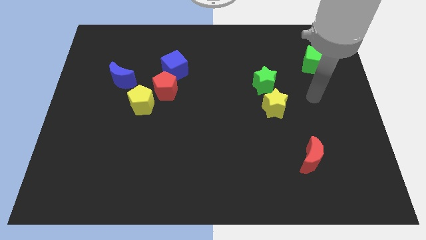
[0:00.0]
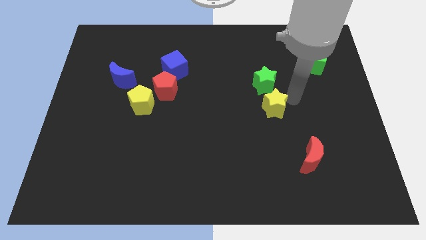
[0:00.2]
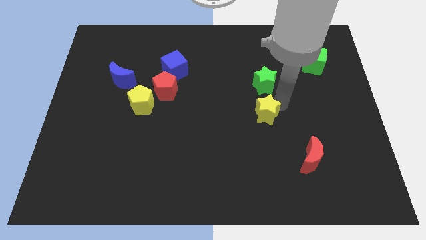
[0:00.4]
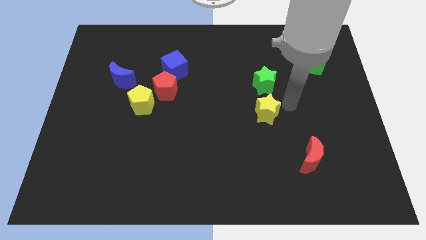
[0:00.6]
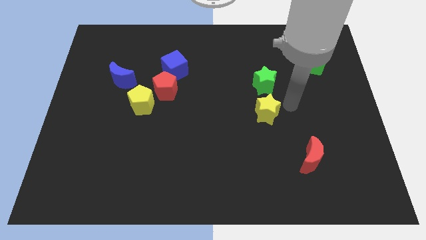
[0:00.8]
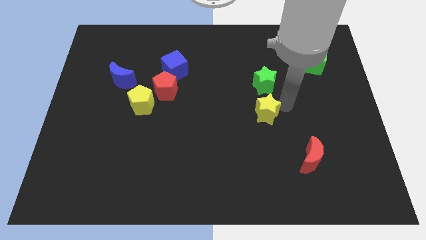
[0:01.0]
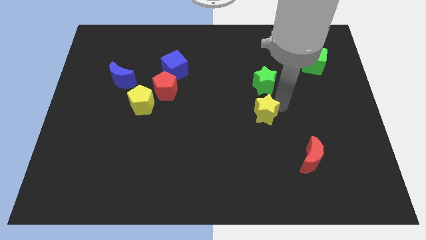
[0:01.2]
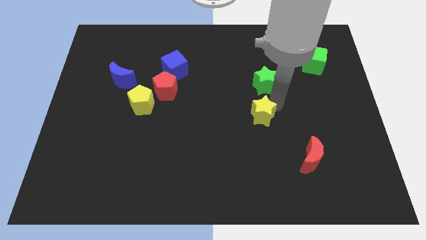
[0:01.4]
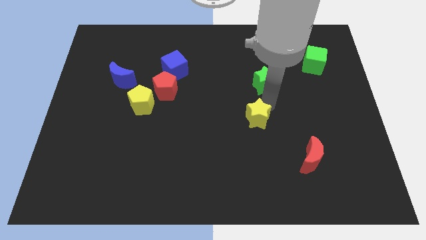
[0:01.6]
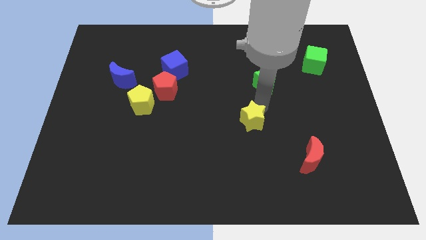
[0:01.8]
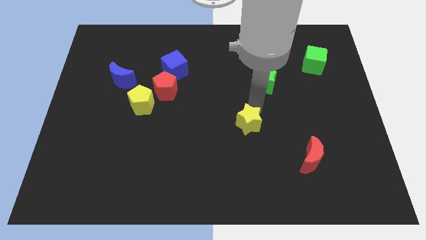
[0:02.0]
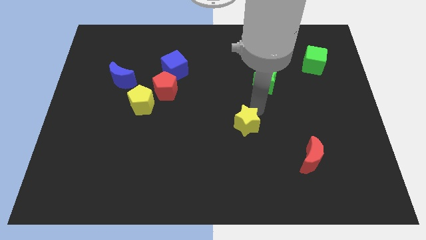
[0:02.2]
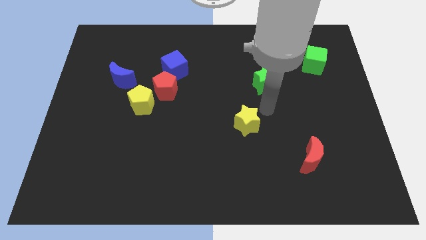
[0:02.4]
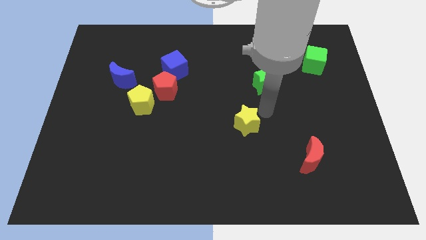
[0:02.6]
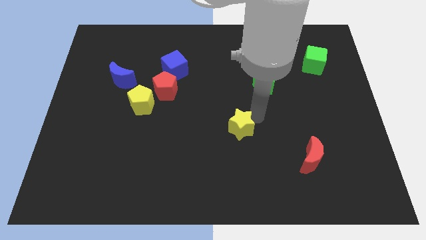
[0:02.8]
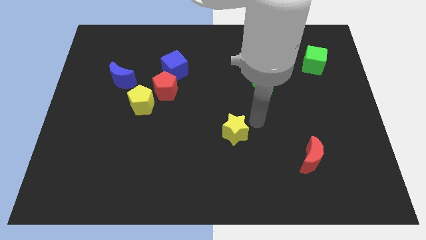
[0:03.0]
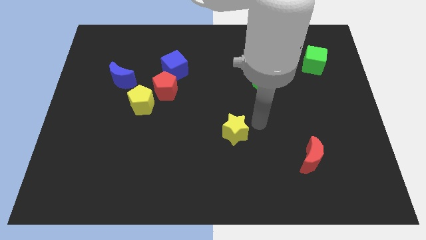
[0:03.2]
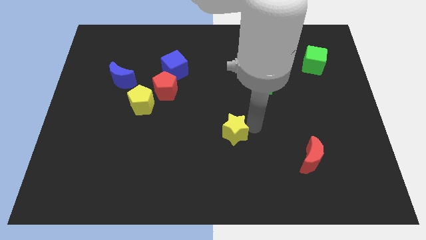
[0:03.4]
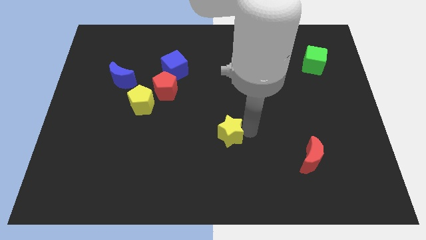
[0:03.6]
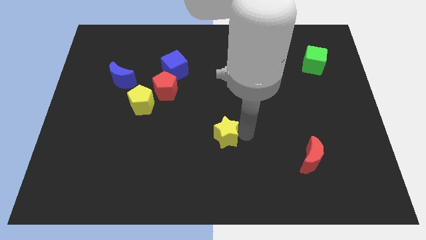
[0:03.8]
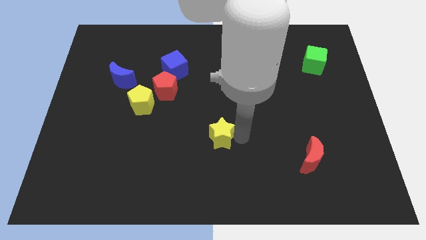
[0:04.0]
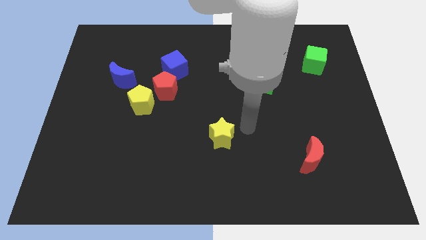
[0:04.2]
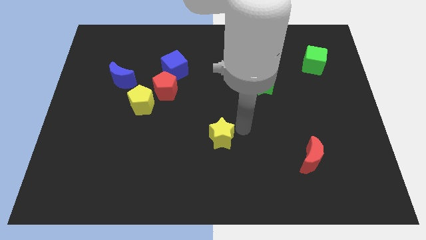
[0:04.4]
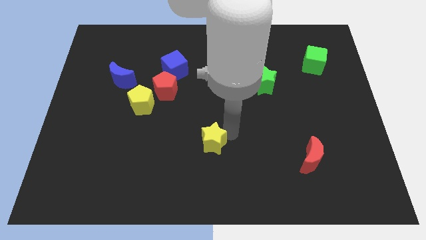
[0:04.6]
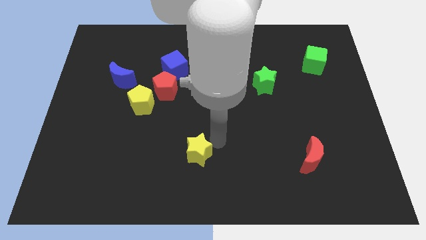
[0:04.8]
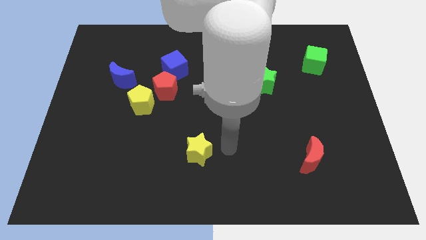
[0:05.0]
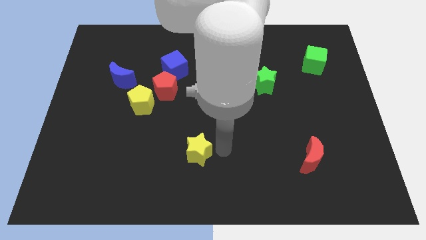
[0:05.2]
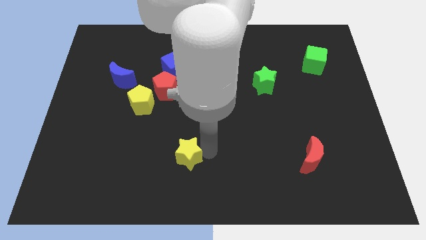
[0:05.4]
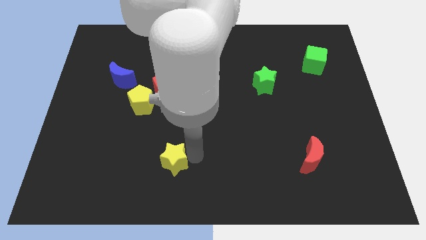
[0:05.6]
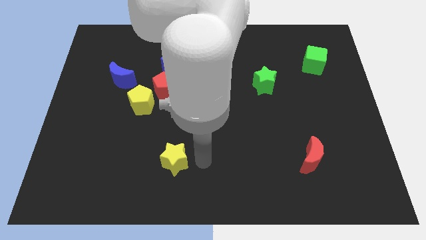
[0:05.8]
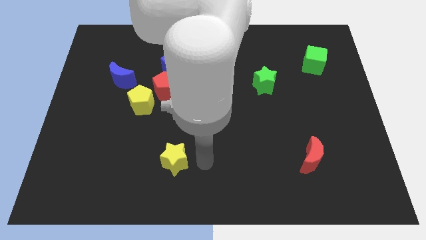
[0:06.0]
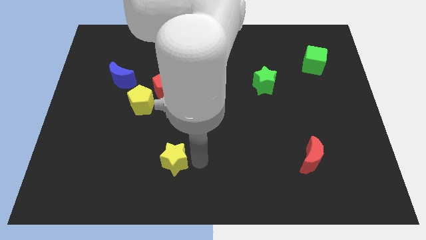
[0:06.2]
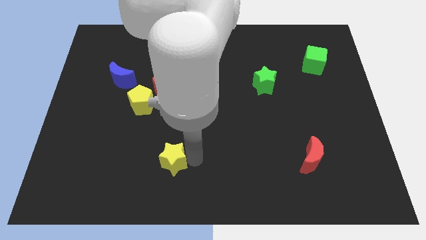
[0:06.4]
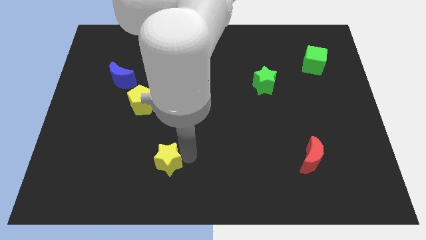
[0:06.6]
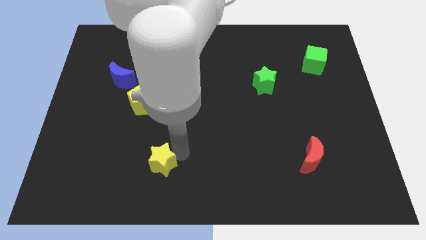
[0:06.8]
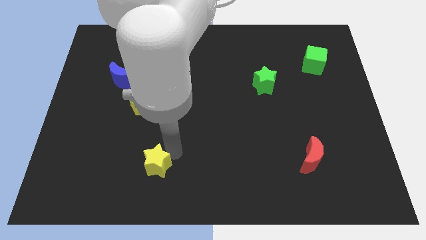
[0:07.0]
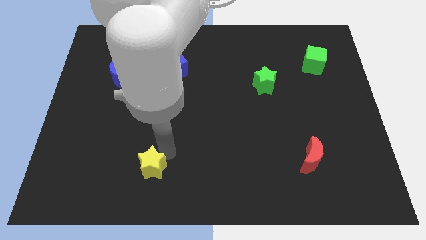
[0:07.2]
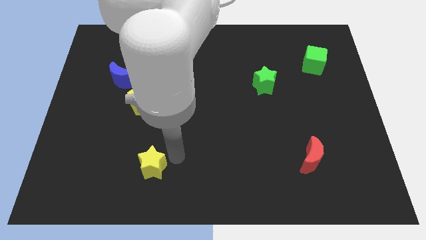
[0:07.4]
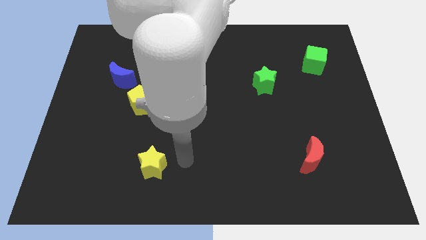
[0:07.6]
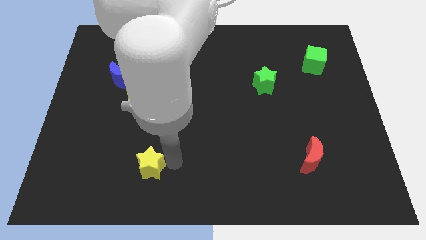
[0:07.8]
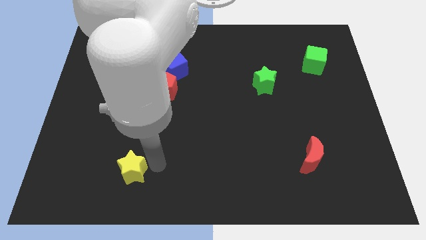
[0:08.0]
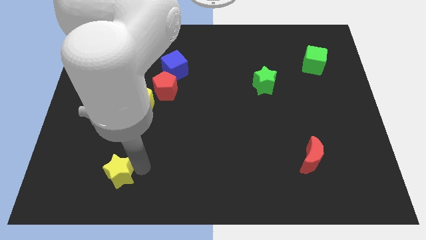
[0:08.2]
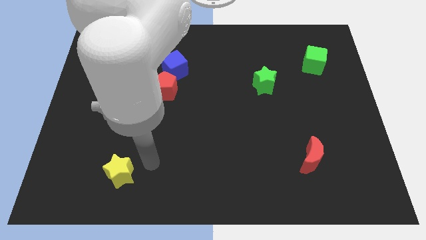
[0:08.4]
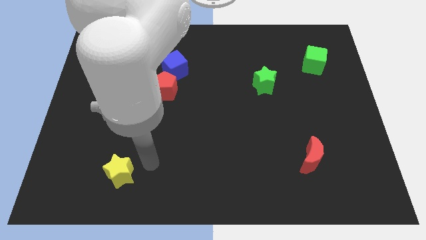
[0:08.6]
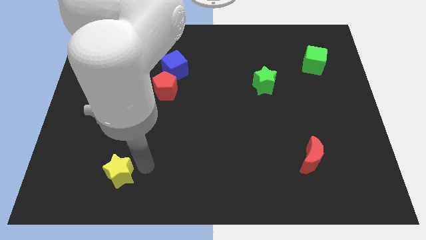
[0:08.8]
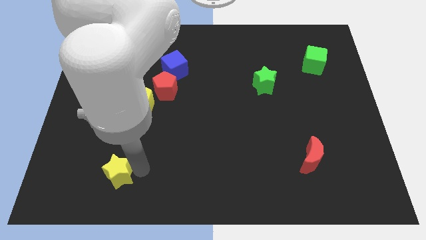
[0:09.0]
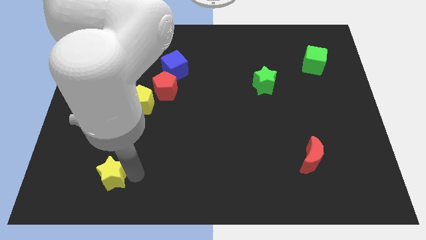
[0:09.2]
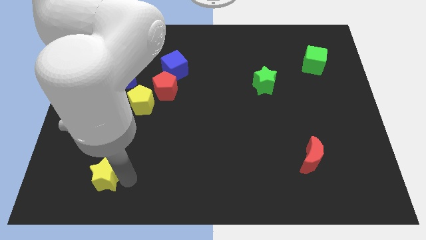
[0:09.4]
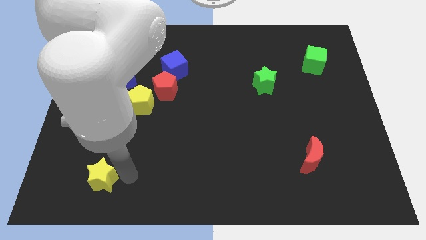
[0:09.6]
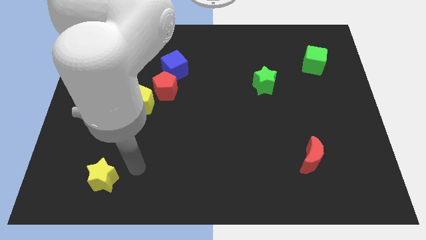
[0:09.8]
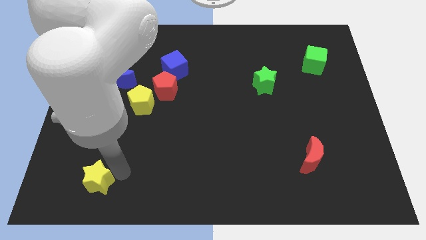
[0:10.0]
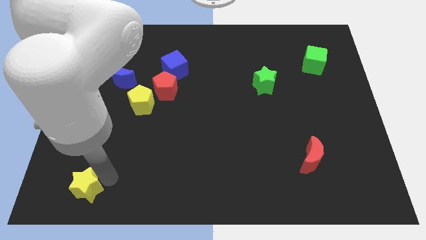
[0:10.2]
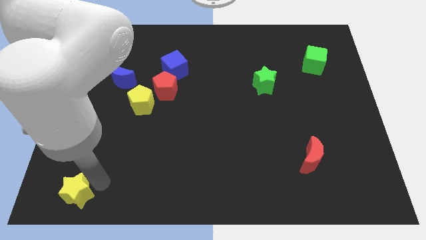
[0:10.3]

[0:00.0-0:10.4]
slide the yellow star to the bottom left

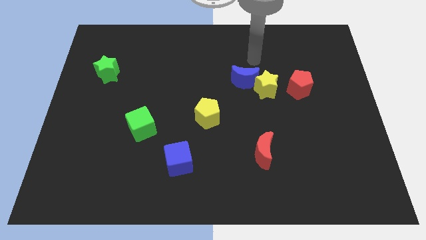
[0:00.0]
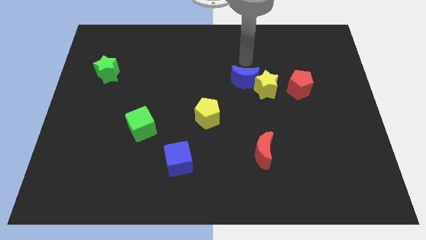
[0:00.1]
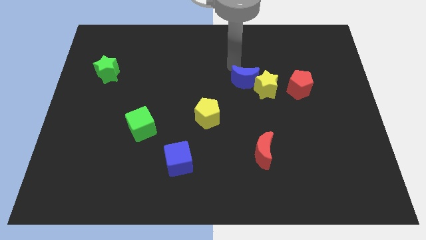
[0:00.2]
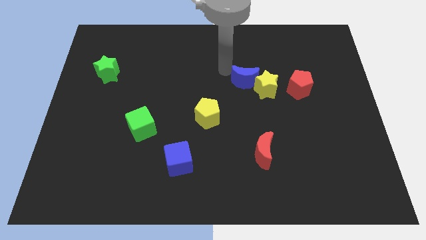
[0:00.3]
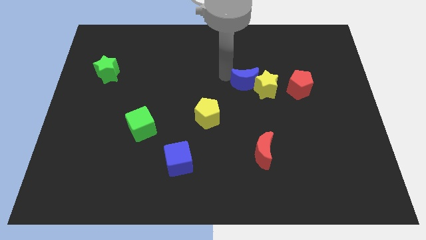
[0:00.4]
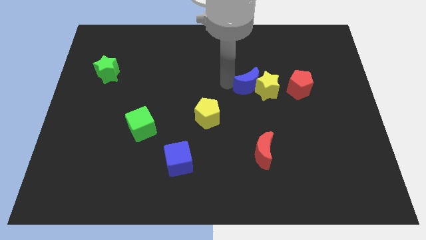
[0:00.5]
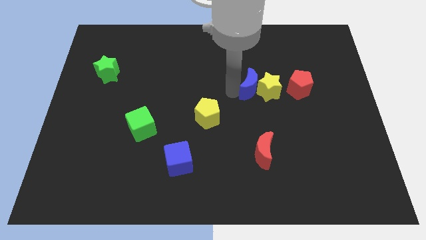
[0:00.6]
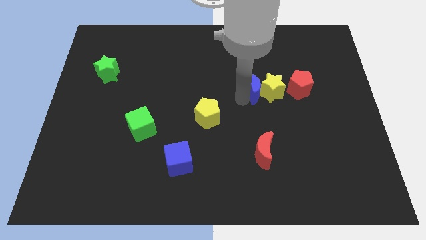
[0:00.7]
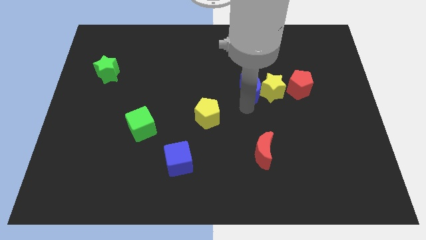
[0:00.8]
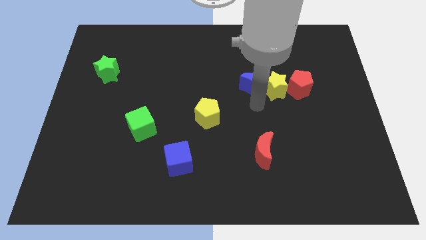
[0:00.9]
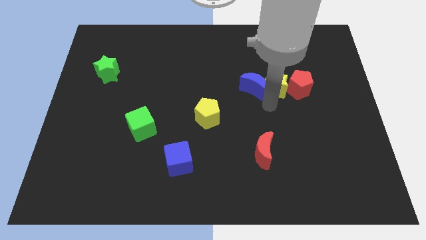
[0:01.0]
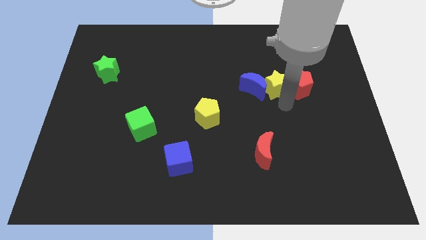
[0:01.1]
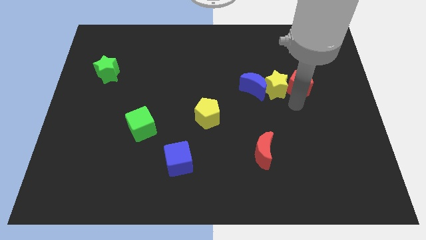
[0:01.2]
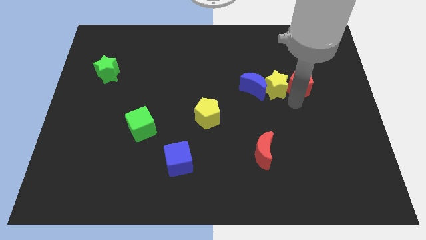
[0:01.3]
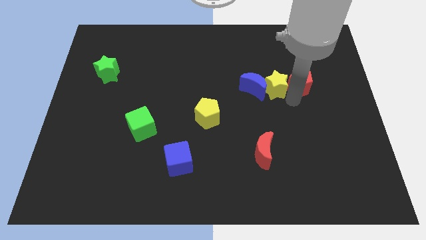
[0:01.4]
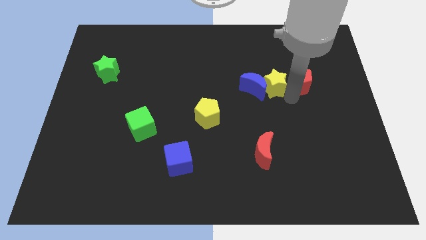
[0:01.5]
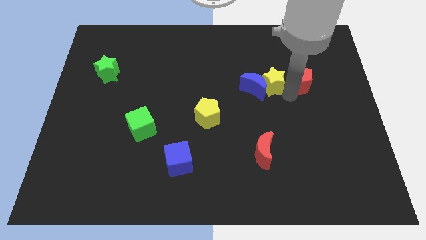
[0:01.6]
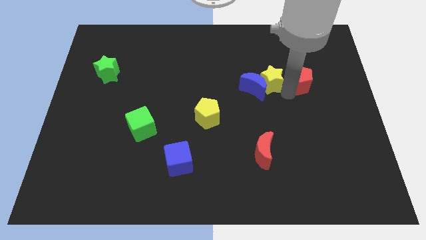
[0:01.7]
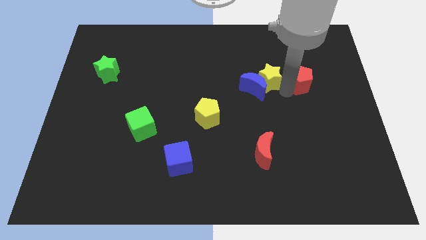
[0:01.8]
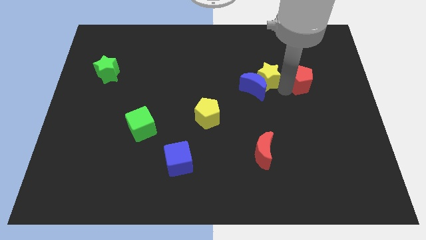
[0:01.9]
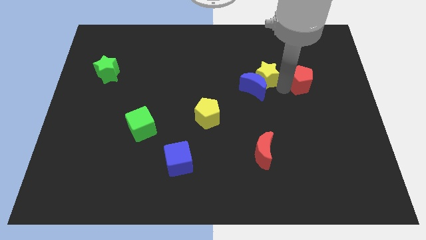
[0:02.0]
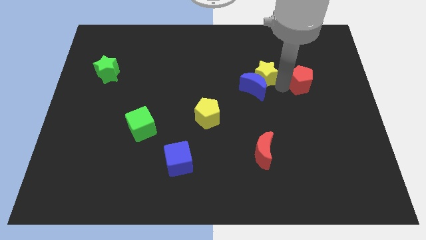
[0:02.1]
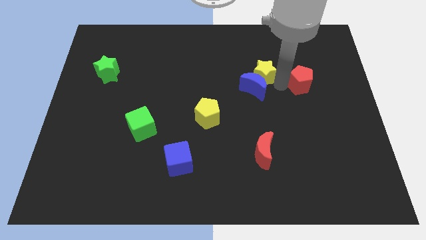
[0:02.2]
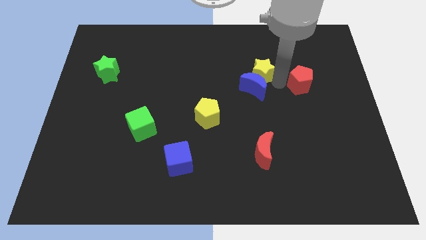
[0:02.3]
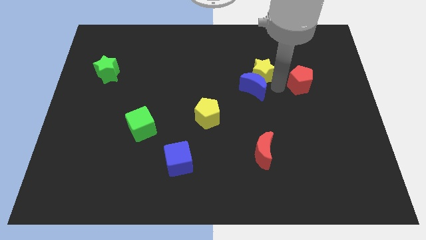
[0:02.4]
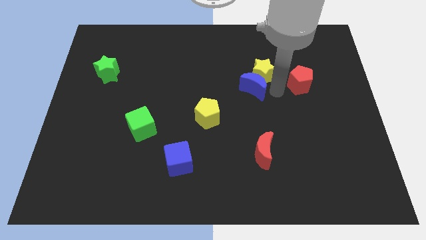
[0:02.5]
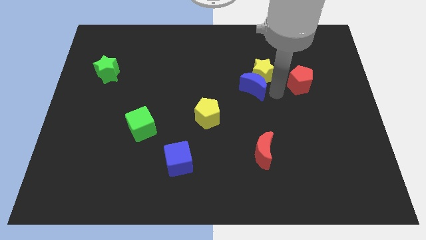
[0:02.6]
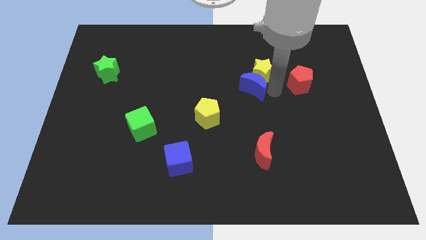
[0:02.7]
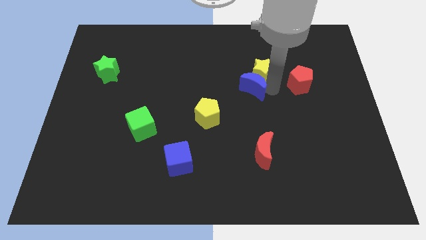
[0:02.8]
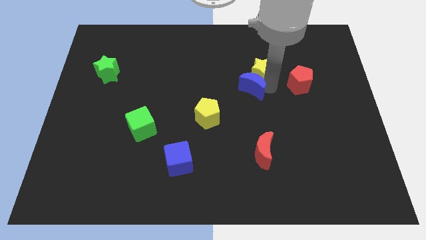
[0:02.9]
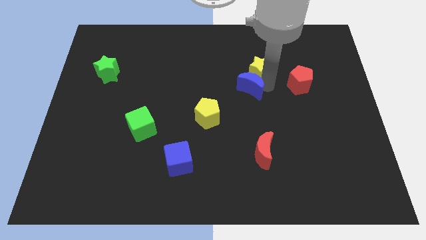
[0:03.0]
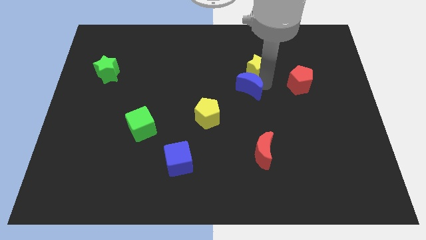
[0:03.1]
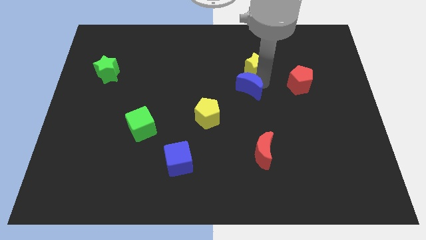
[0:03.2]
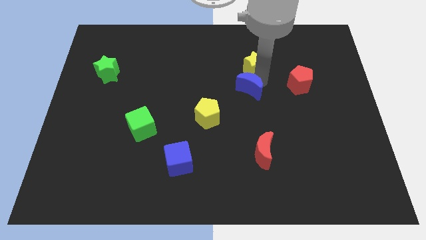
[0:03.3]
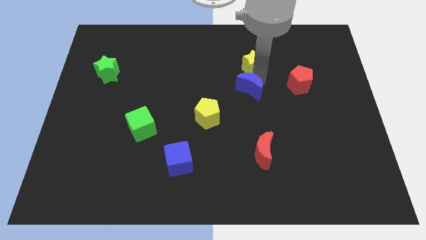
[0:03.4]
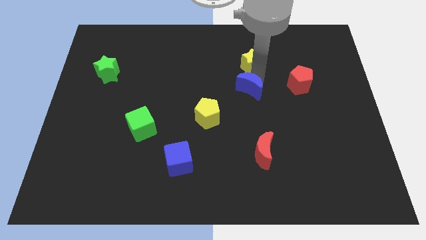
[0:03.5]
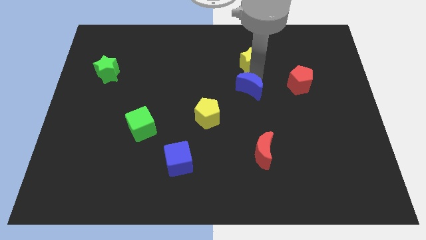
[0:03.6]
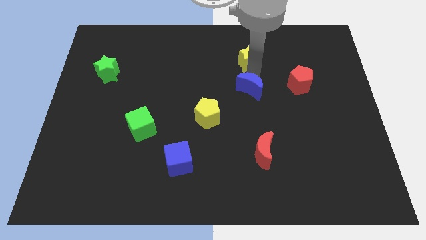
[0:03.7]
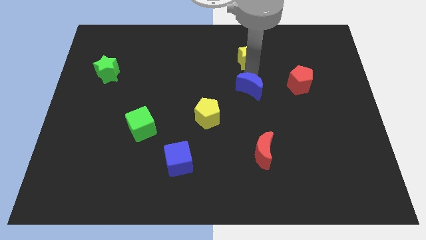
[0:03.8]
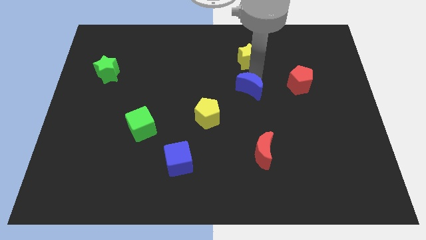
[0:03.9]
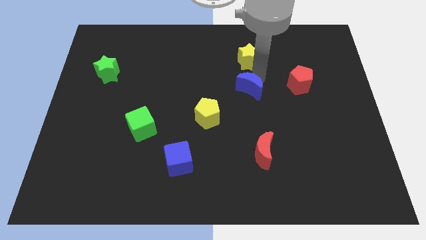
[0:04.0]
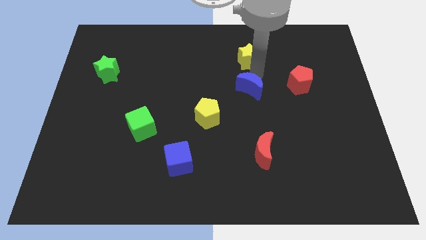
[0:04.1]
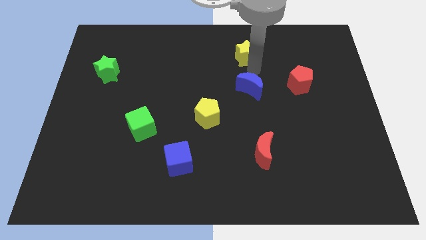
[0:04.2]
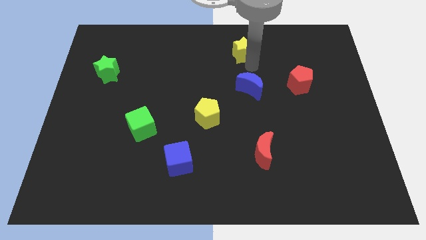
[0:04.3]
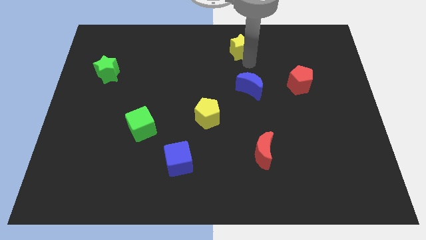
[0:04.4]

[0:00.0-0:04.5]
slide the yellow star to the towards your base
